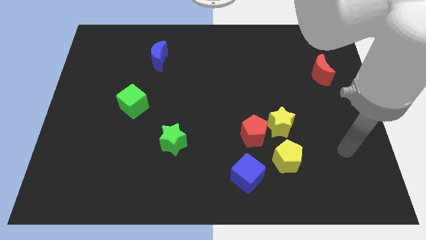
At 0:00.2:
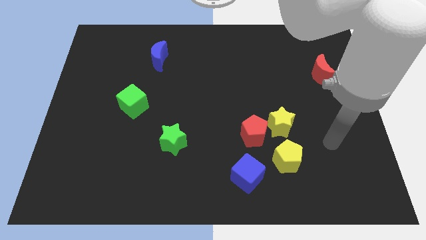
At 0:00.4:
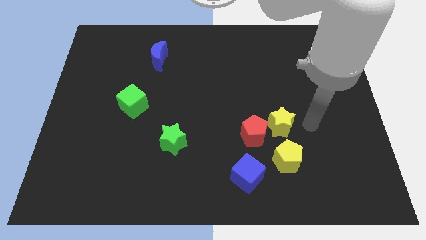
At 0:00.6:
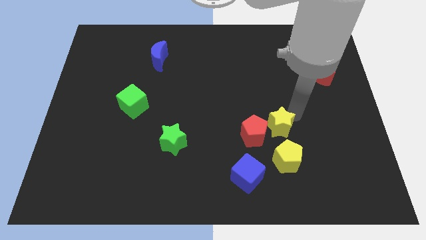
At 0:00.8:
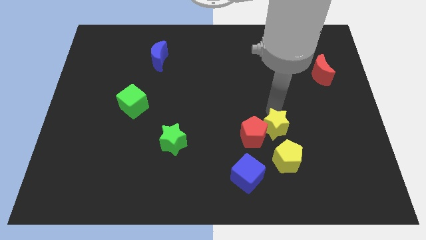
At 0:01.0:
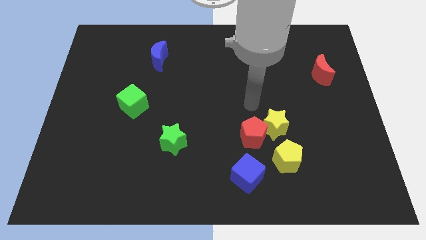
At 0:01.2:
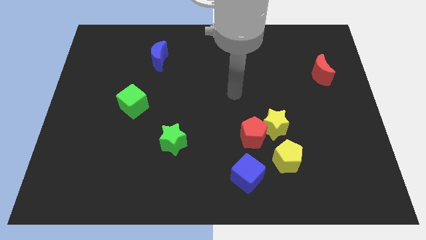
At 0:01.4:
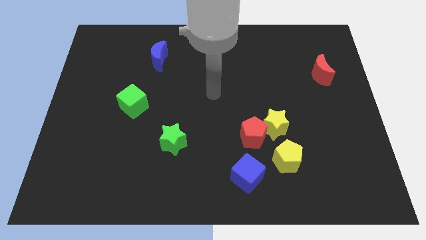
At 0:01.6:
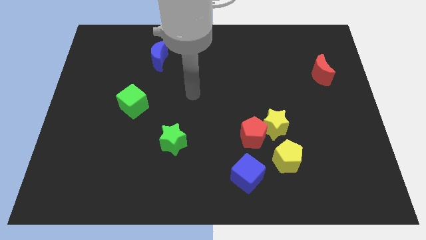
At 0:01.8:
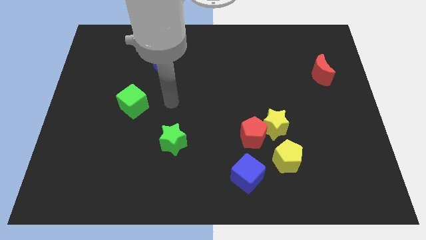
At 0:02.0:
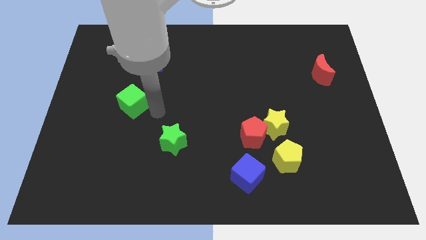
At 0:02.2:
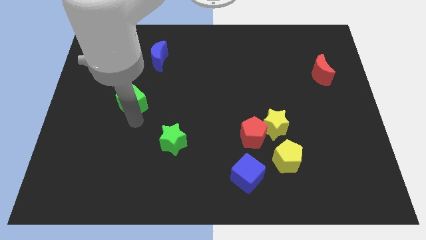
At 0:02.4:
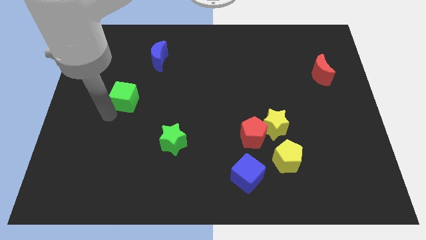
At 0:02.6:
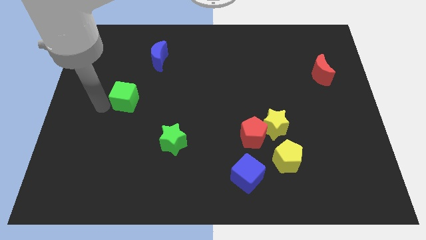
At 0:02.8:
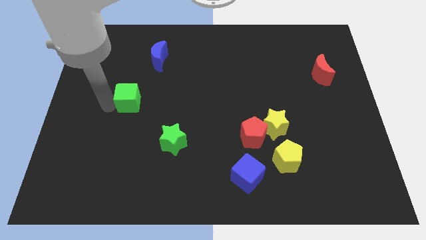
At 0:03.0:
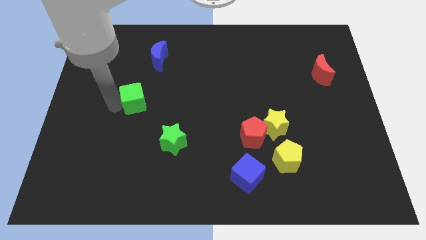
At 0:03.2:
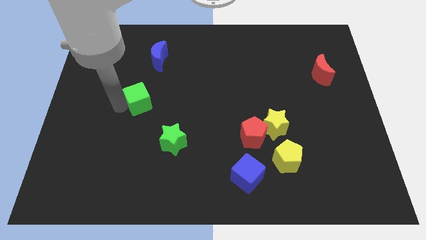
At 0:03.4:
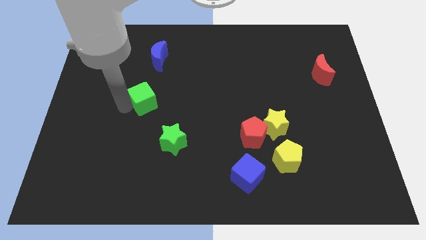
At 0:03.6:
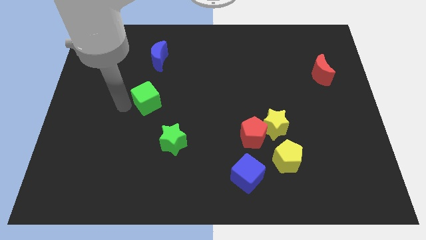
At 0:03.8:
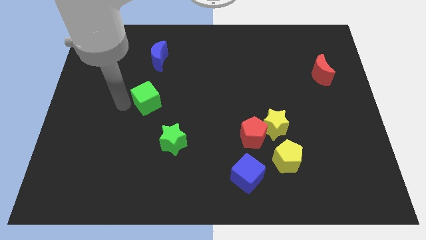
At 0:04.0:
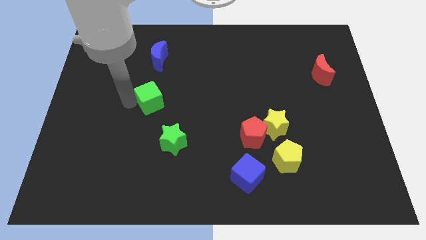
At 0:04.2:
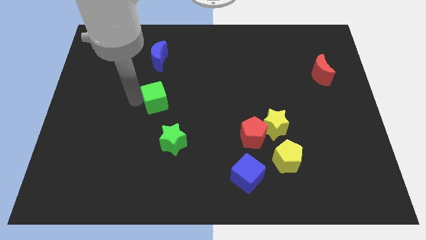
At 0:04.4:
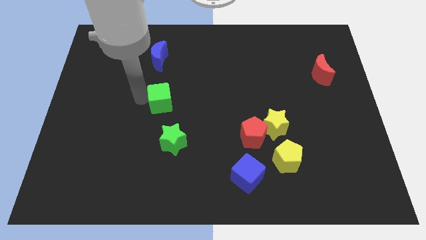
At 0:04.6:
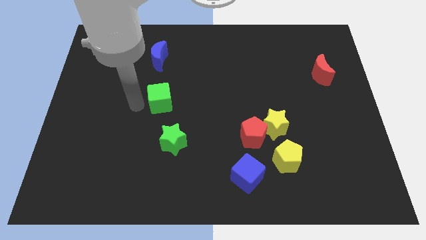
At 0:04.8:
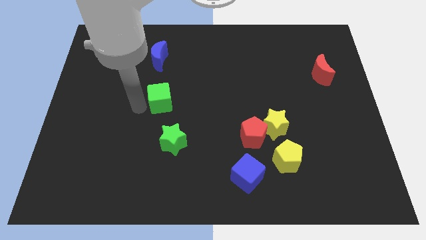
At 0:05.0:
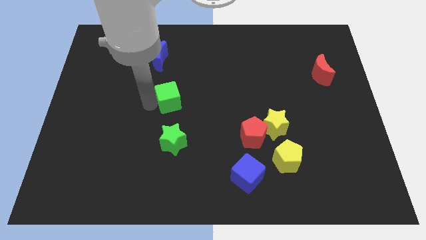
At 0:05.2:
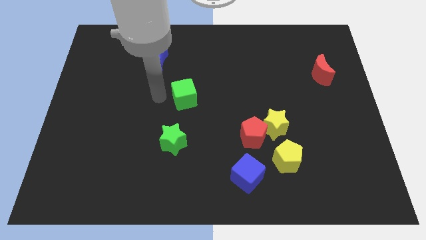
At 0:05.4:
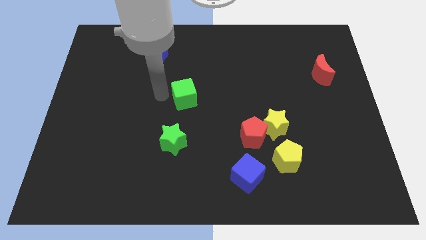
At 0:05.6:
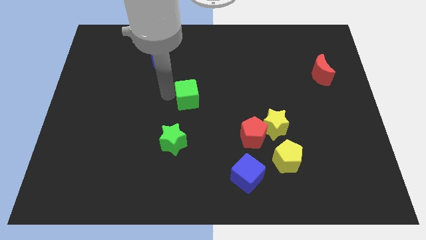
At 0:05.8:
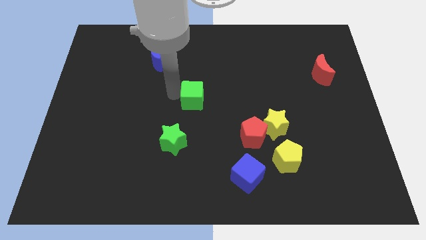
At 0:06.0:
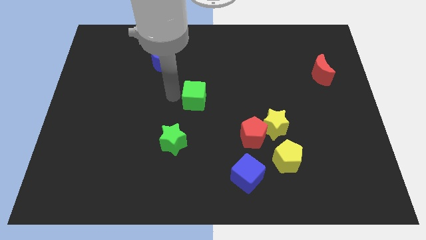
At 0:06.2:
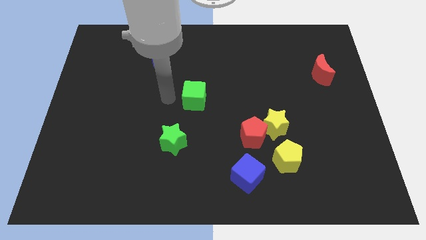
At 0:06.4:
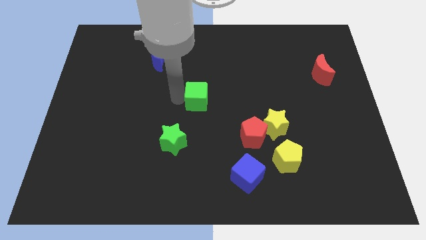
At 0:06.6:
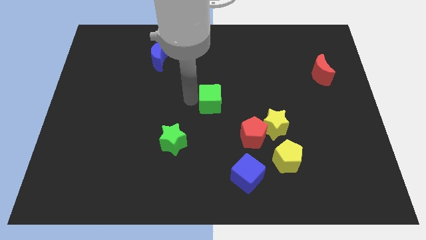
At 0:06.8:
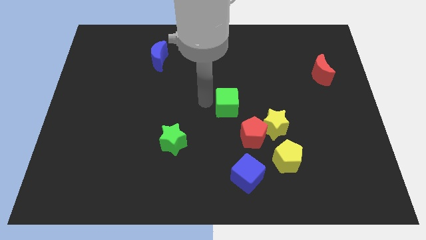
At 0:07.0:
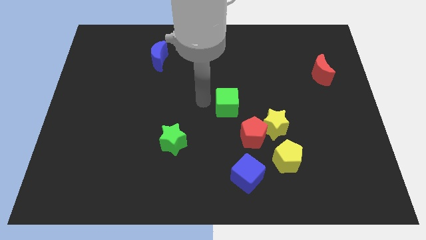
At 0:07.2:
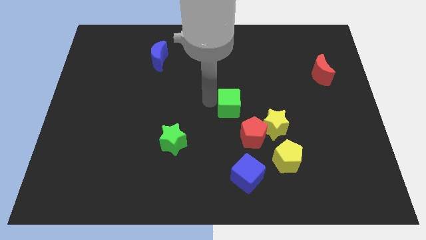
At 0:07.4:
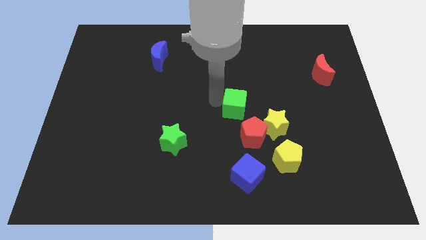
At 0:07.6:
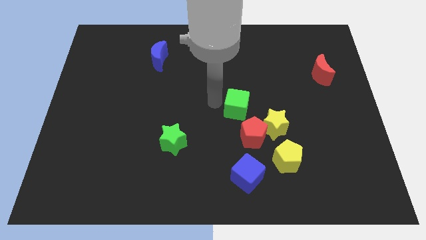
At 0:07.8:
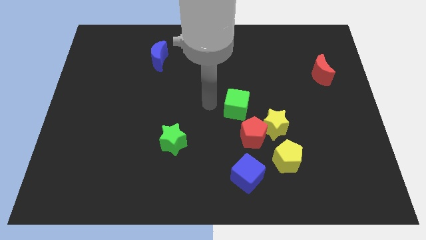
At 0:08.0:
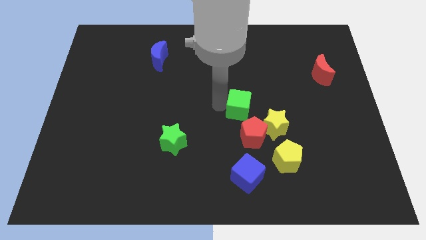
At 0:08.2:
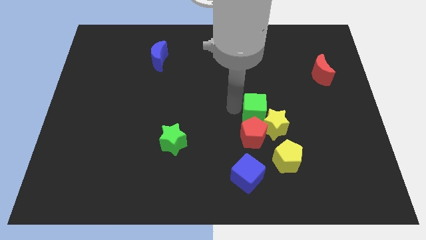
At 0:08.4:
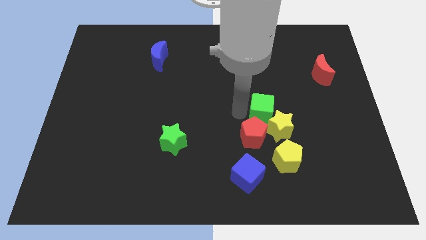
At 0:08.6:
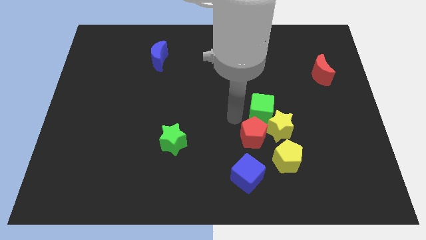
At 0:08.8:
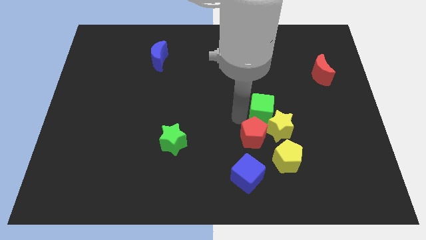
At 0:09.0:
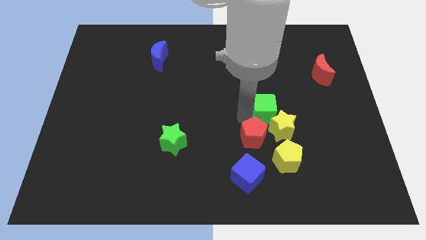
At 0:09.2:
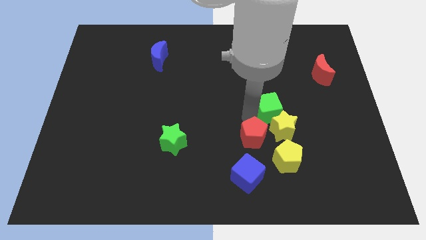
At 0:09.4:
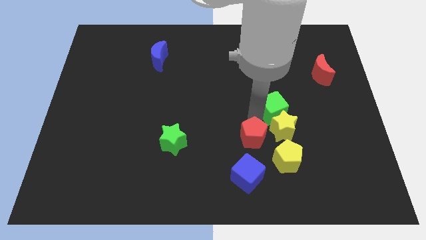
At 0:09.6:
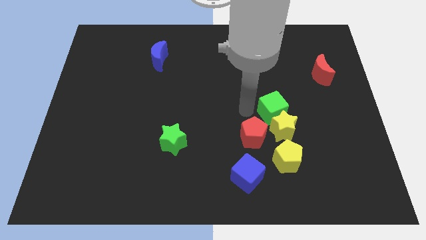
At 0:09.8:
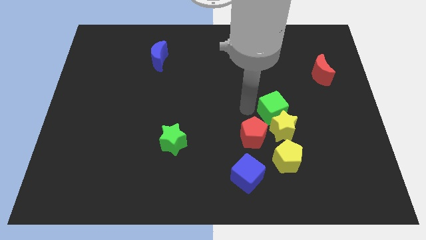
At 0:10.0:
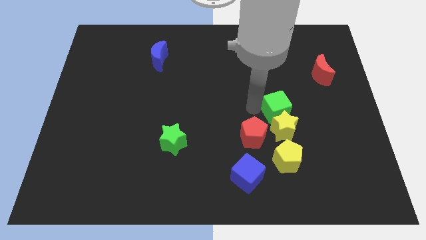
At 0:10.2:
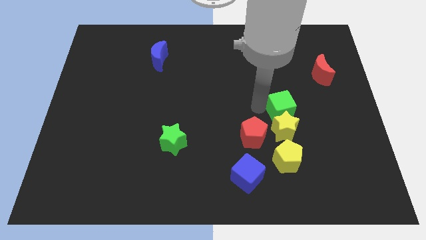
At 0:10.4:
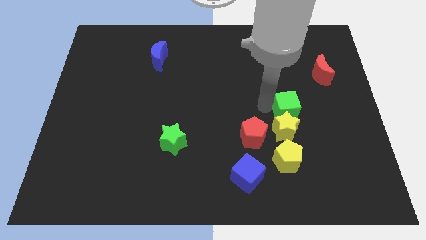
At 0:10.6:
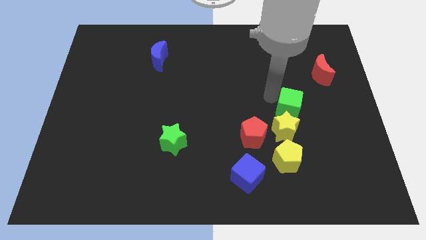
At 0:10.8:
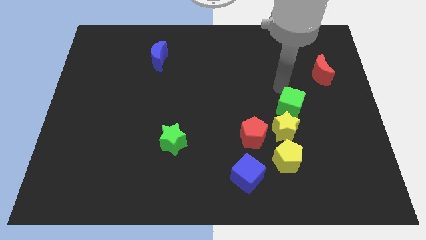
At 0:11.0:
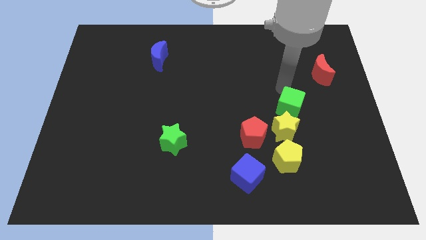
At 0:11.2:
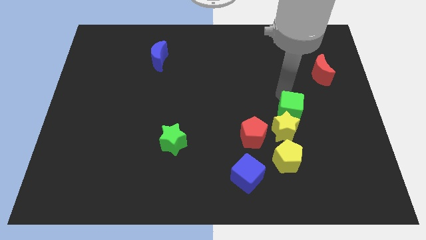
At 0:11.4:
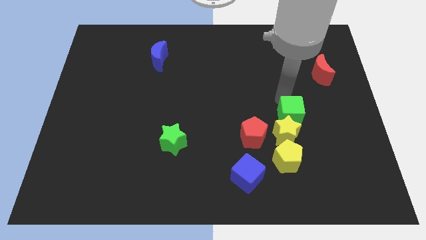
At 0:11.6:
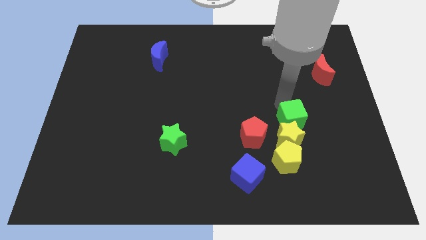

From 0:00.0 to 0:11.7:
move the green cube to the right side of the red pentagon

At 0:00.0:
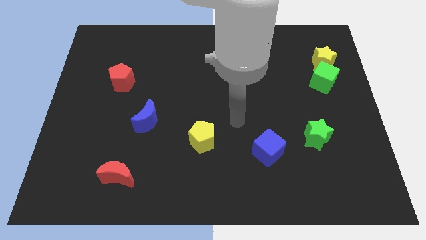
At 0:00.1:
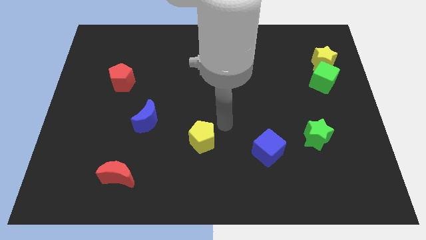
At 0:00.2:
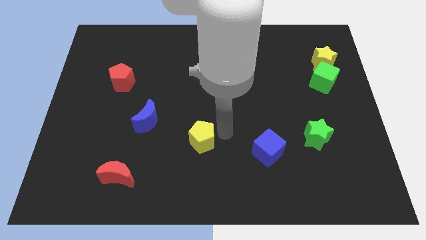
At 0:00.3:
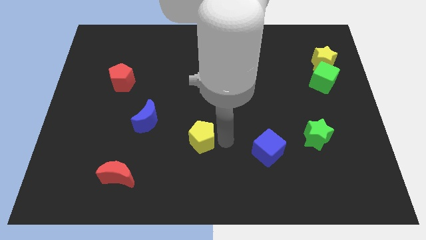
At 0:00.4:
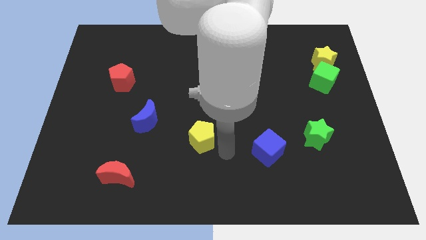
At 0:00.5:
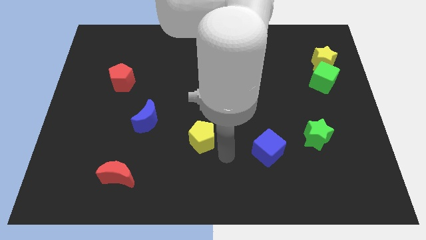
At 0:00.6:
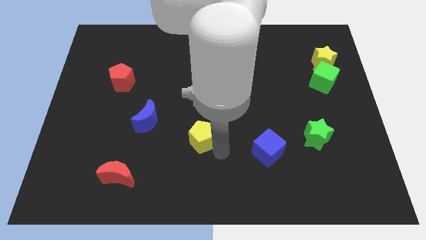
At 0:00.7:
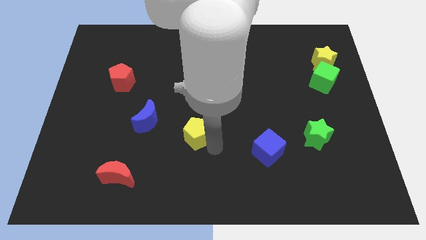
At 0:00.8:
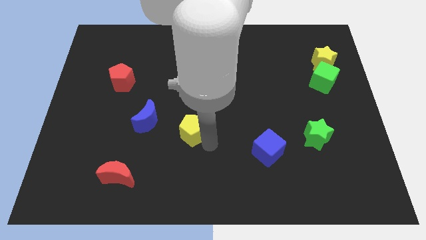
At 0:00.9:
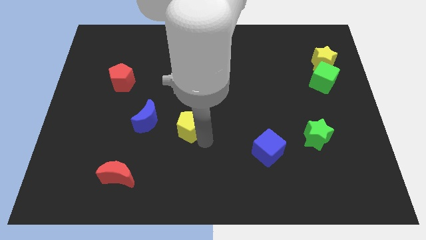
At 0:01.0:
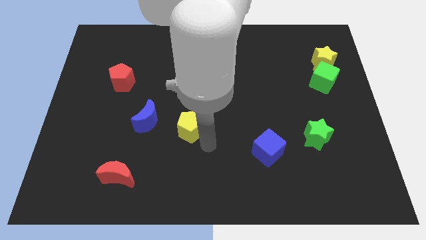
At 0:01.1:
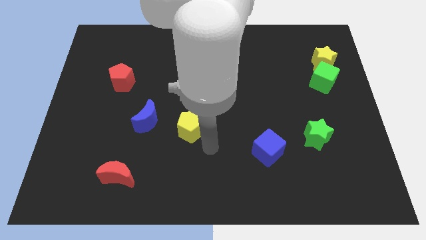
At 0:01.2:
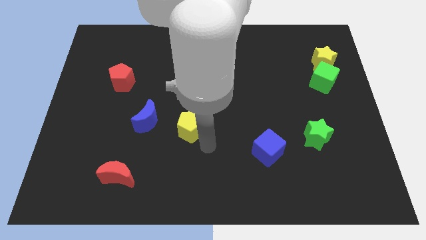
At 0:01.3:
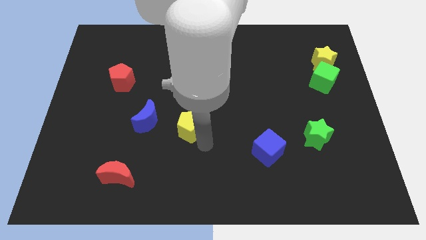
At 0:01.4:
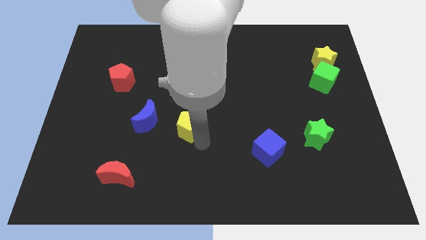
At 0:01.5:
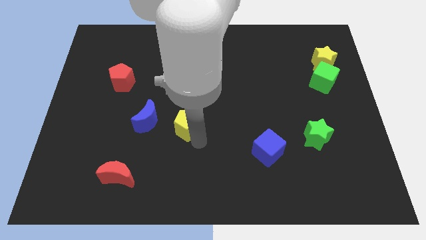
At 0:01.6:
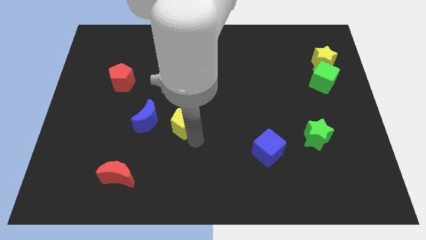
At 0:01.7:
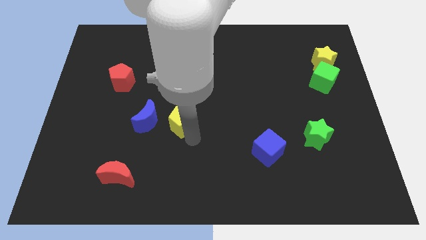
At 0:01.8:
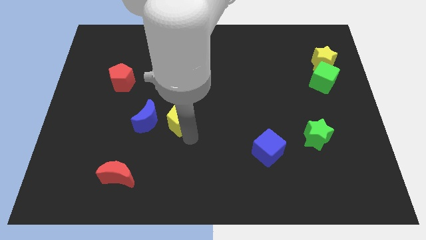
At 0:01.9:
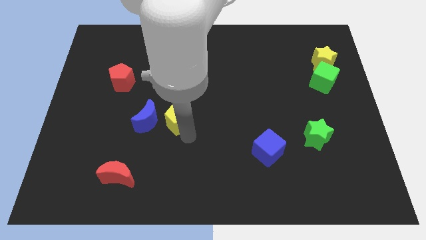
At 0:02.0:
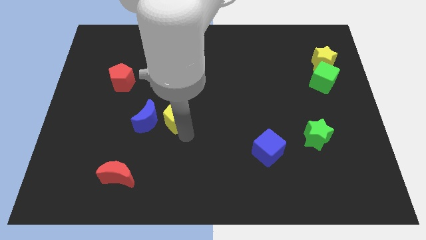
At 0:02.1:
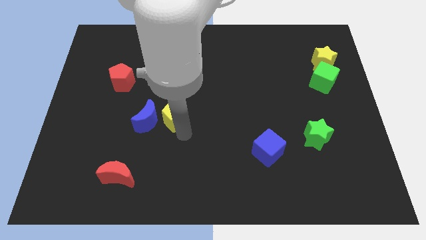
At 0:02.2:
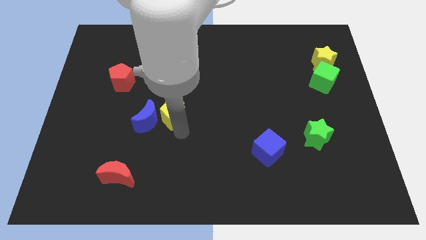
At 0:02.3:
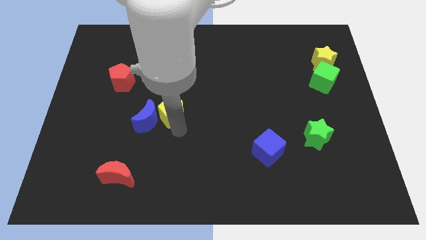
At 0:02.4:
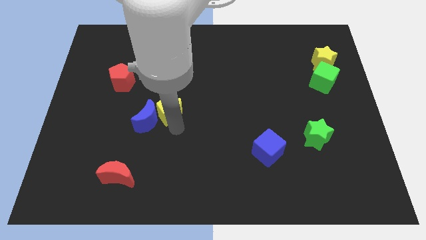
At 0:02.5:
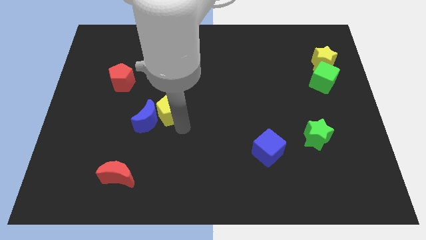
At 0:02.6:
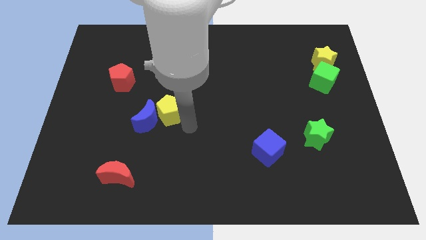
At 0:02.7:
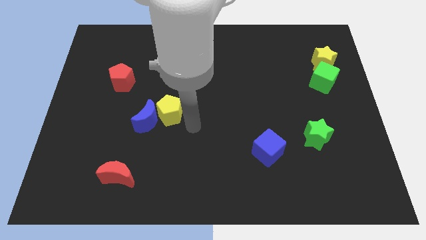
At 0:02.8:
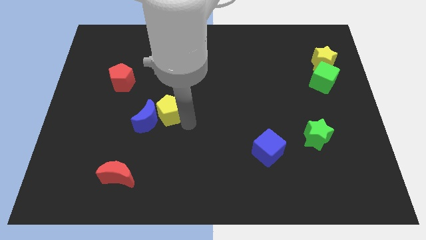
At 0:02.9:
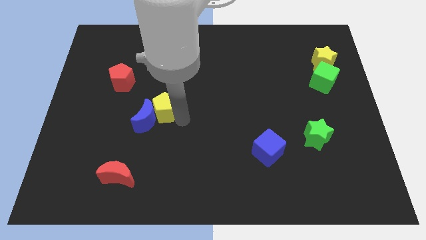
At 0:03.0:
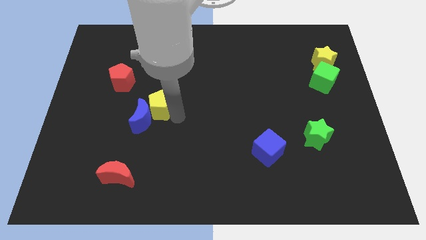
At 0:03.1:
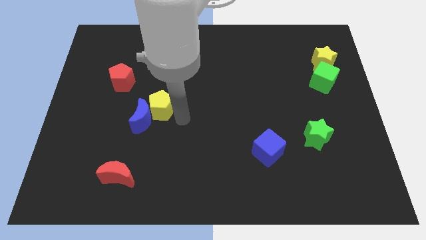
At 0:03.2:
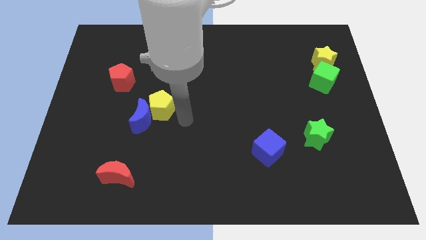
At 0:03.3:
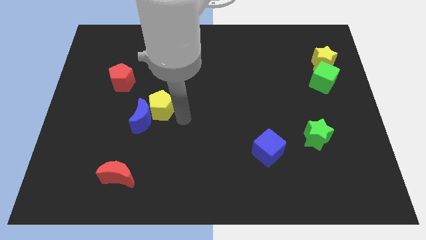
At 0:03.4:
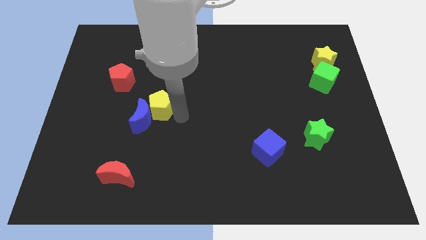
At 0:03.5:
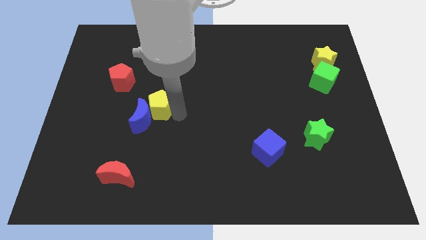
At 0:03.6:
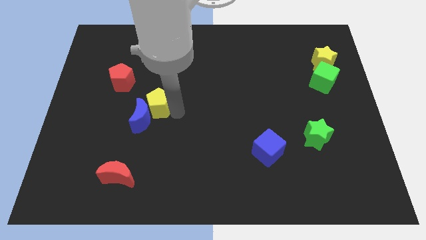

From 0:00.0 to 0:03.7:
slide the yellow pentagon to the bottom right of the red pentagon
